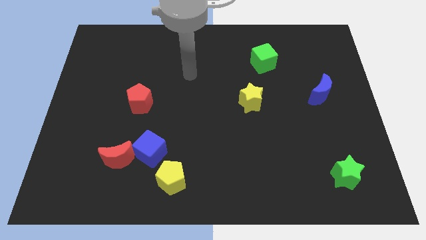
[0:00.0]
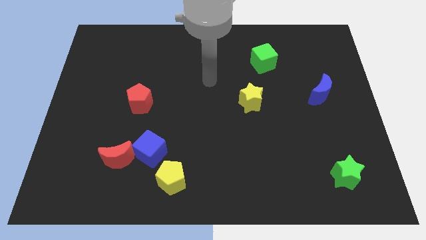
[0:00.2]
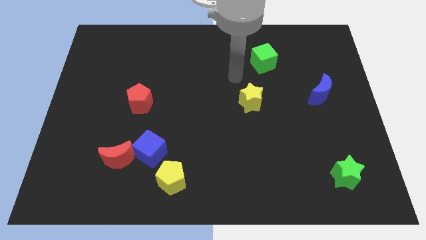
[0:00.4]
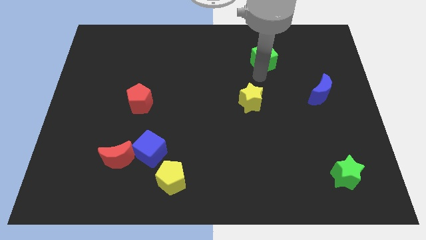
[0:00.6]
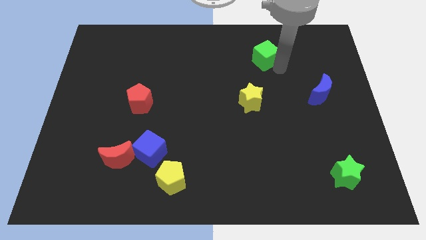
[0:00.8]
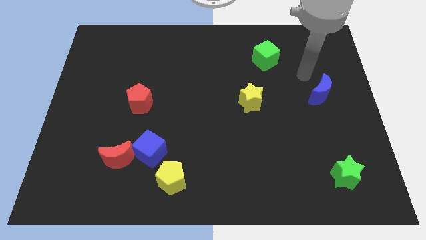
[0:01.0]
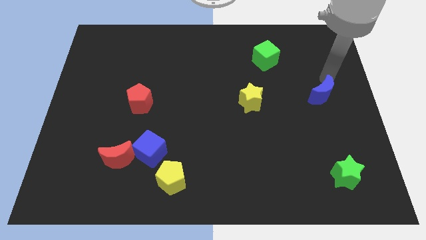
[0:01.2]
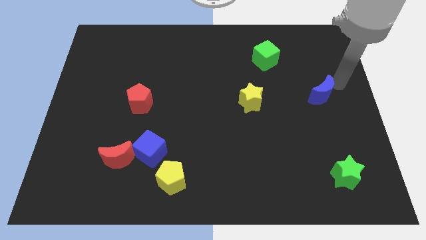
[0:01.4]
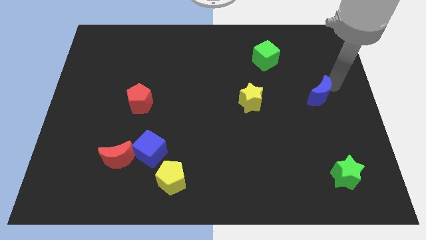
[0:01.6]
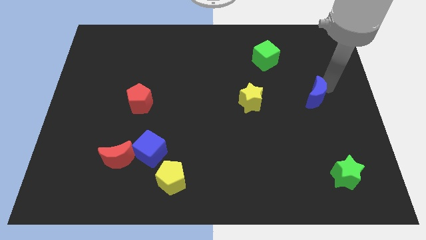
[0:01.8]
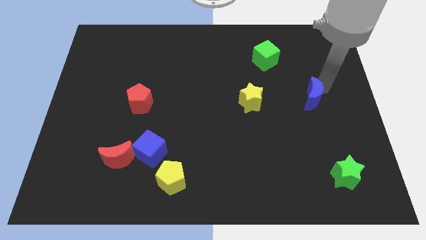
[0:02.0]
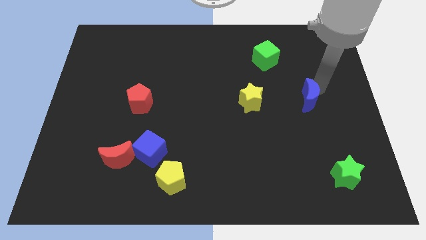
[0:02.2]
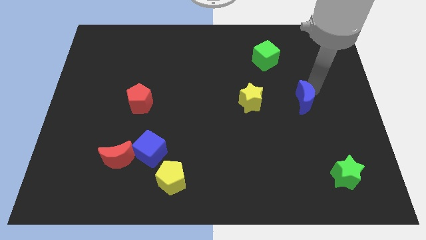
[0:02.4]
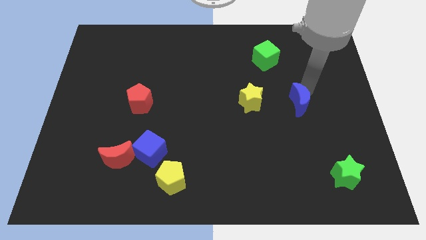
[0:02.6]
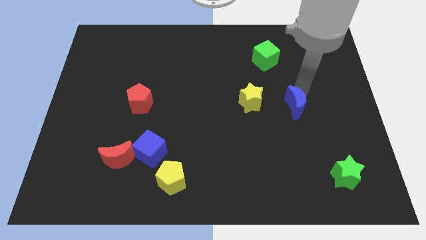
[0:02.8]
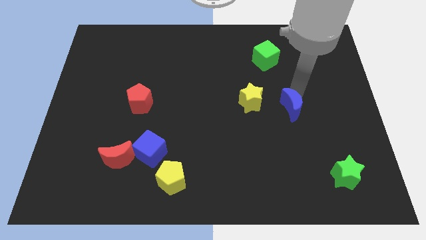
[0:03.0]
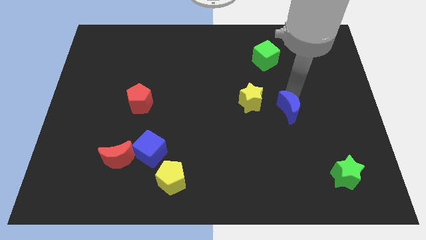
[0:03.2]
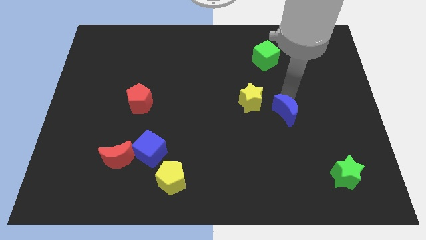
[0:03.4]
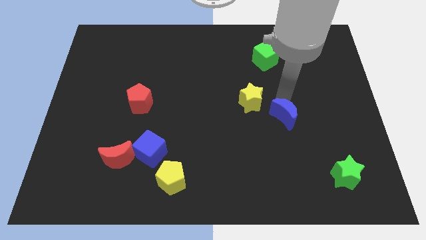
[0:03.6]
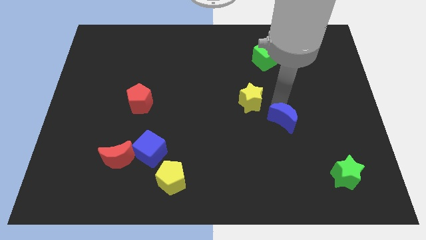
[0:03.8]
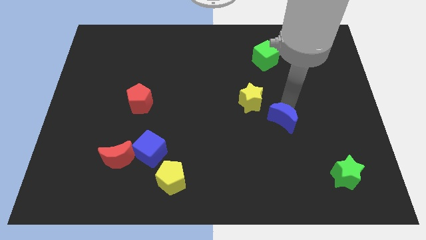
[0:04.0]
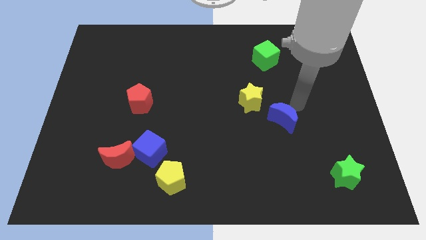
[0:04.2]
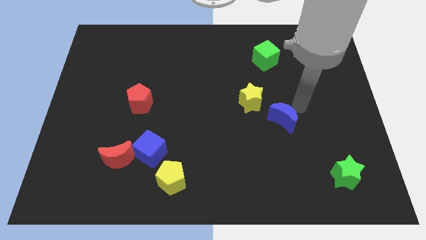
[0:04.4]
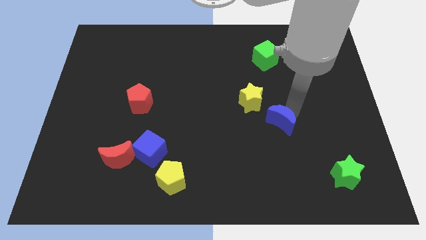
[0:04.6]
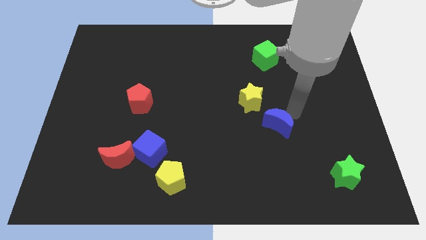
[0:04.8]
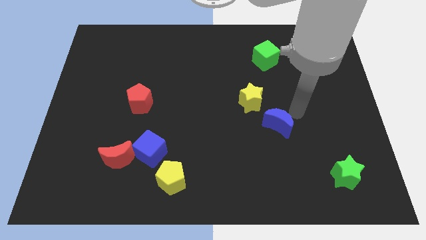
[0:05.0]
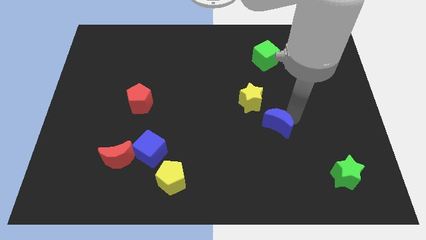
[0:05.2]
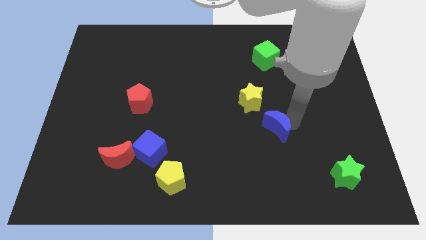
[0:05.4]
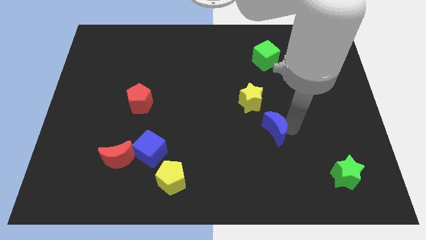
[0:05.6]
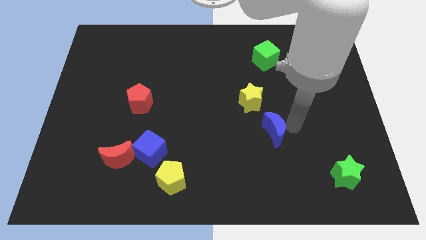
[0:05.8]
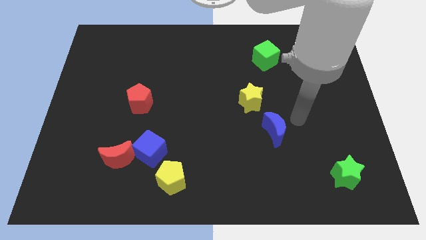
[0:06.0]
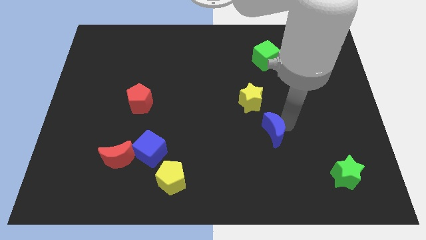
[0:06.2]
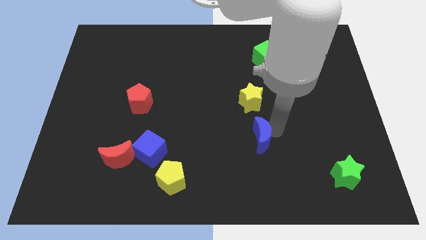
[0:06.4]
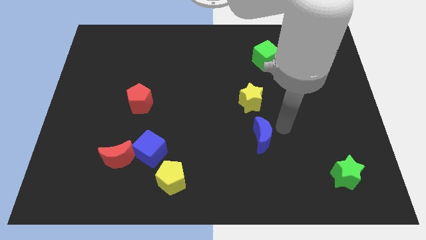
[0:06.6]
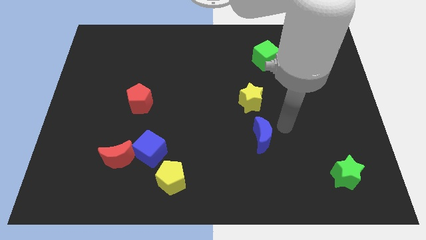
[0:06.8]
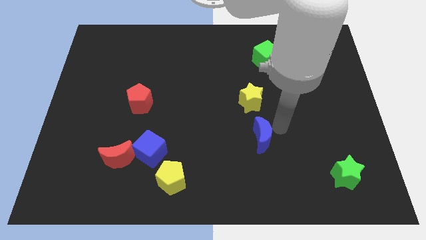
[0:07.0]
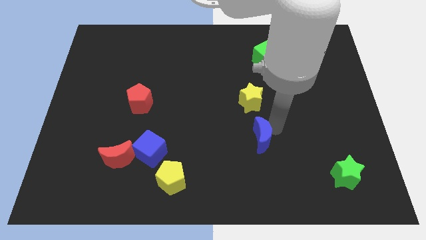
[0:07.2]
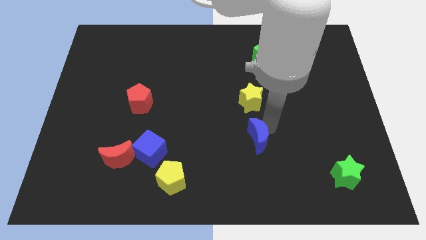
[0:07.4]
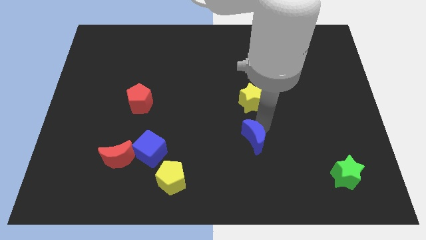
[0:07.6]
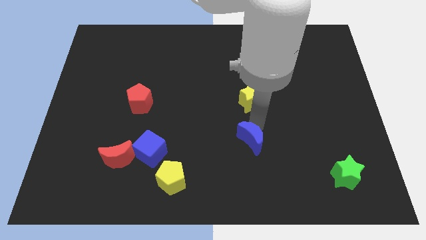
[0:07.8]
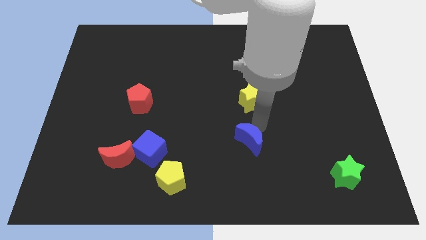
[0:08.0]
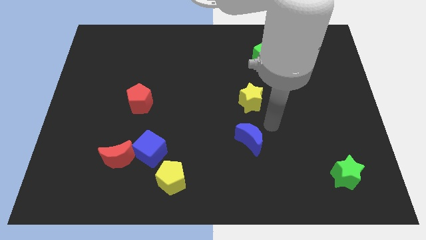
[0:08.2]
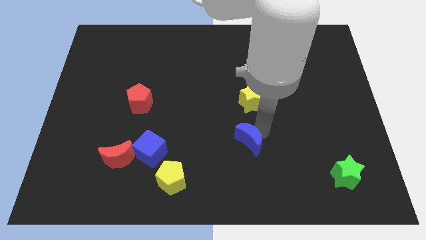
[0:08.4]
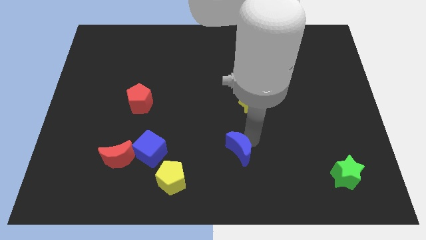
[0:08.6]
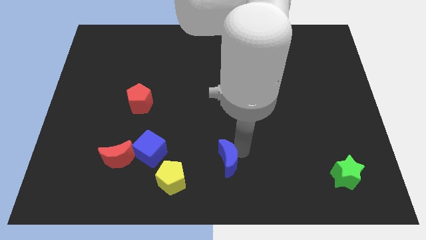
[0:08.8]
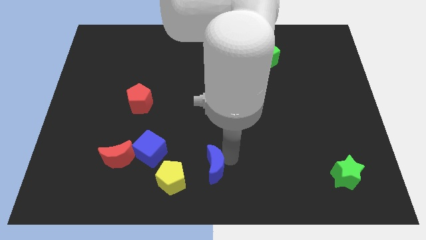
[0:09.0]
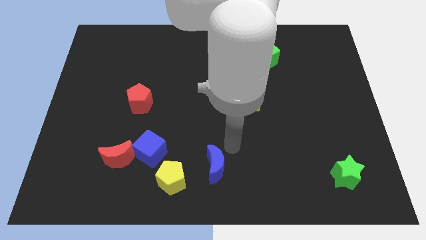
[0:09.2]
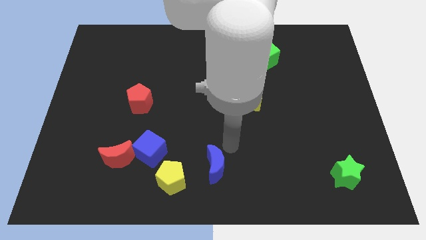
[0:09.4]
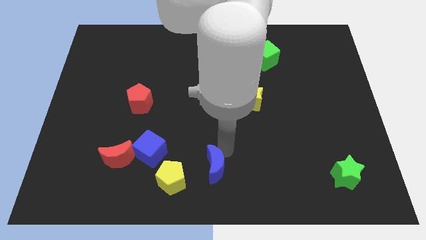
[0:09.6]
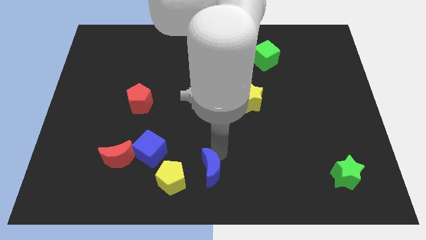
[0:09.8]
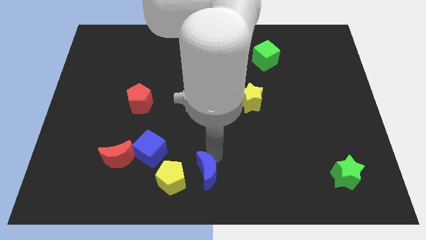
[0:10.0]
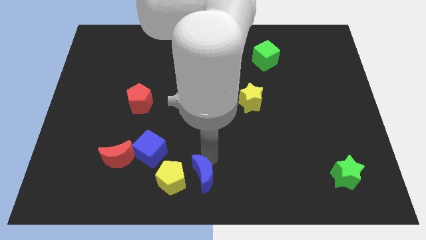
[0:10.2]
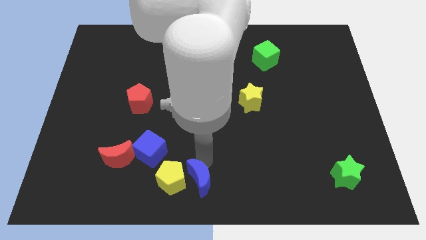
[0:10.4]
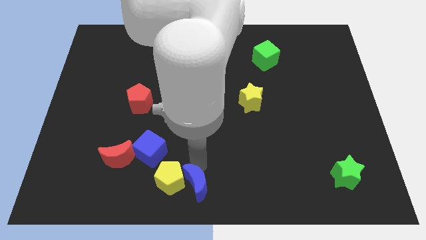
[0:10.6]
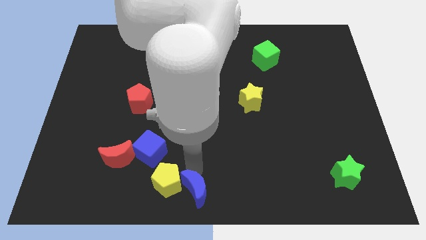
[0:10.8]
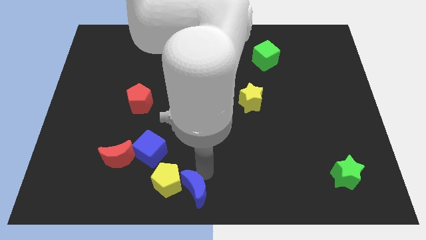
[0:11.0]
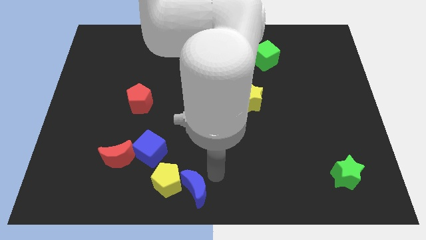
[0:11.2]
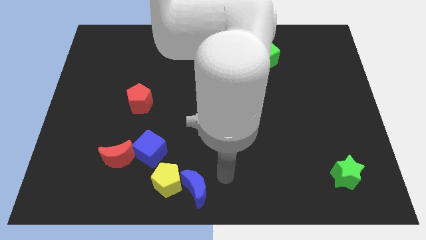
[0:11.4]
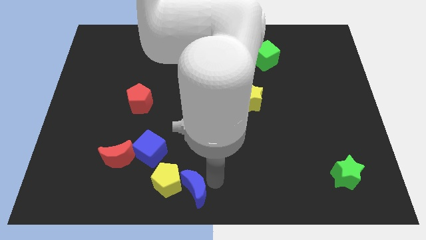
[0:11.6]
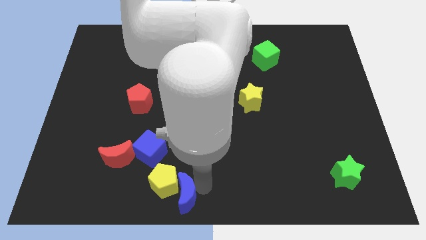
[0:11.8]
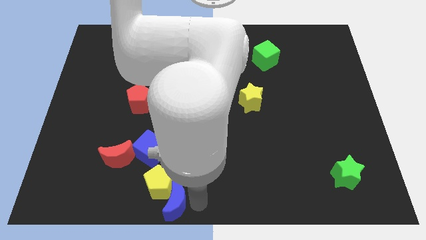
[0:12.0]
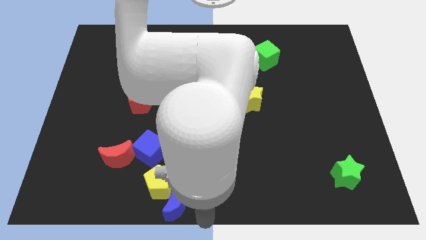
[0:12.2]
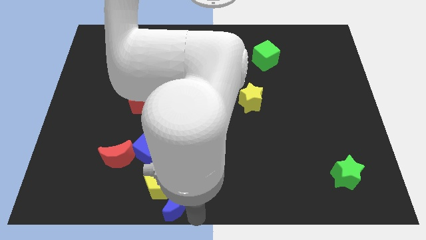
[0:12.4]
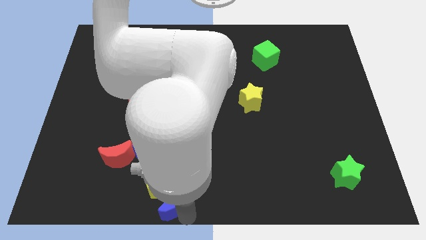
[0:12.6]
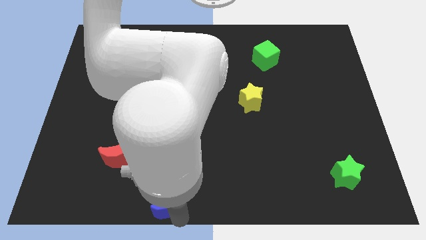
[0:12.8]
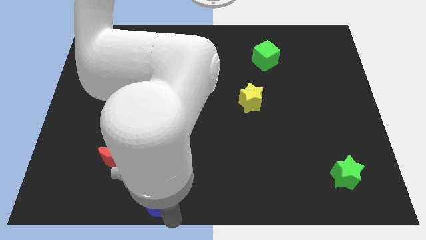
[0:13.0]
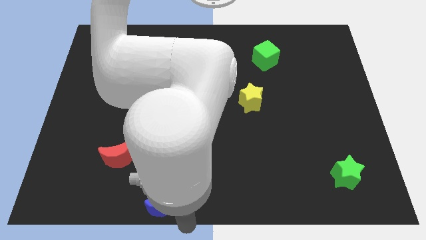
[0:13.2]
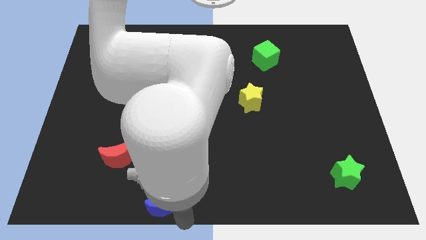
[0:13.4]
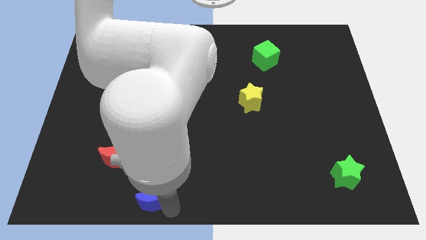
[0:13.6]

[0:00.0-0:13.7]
move the blue moon diagonally down and to the right of the red moon
